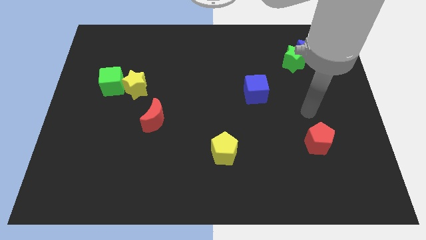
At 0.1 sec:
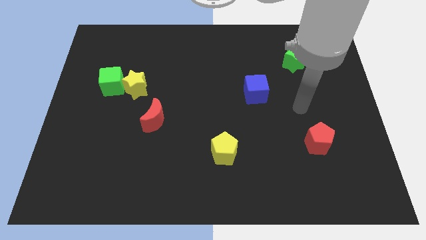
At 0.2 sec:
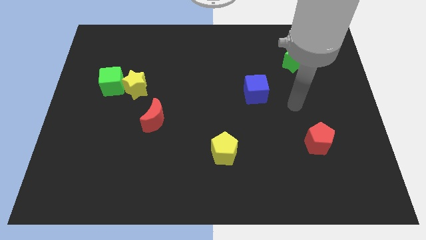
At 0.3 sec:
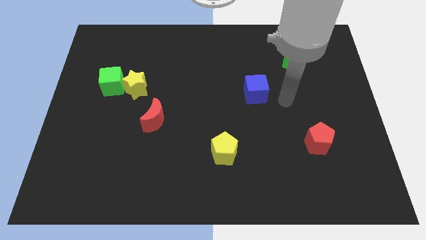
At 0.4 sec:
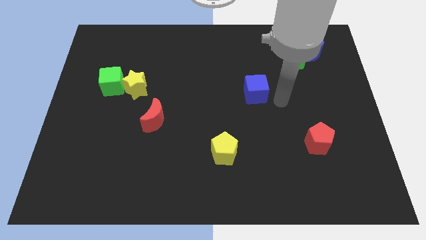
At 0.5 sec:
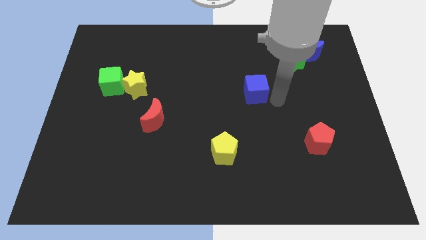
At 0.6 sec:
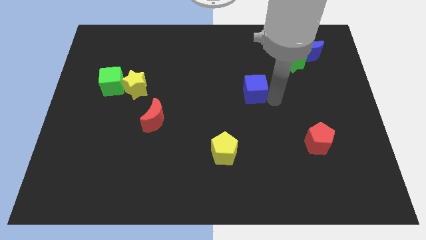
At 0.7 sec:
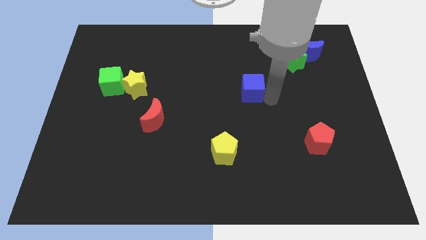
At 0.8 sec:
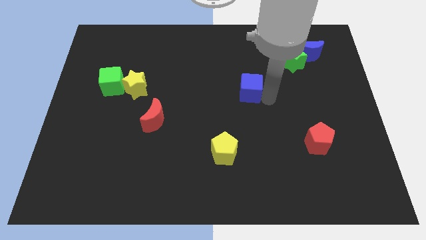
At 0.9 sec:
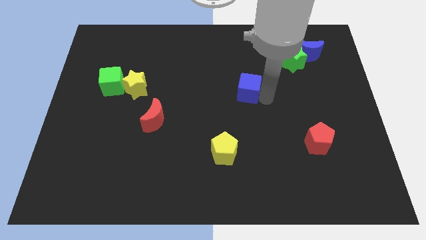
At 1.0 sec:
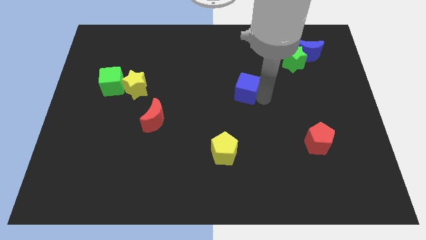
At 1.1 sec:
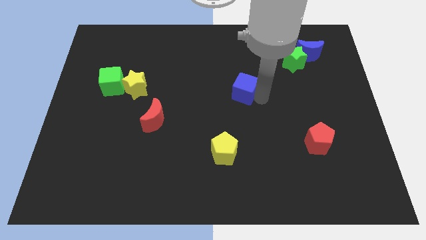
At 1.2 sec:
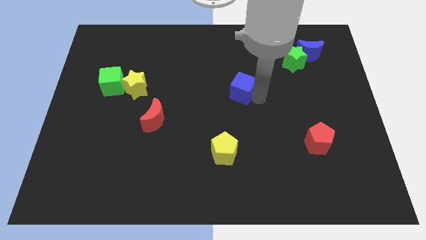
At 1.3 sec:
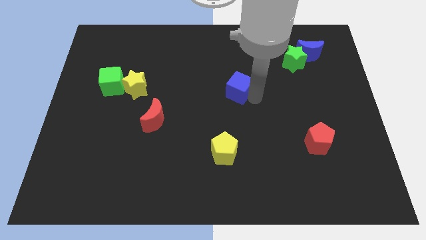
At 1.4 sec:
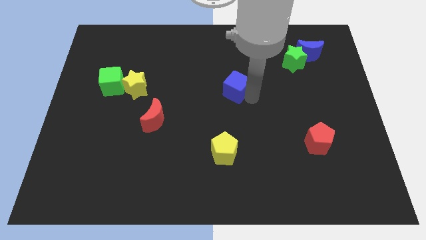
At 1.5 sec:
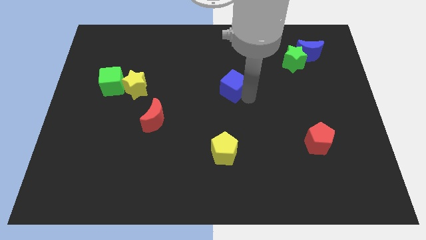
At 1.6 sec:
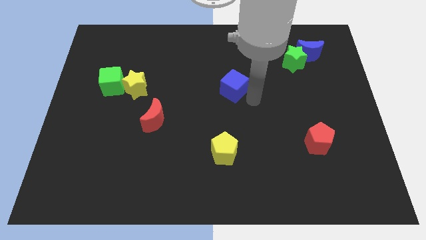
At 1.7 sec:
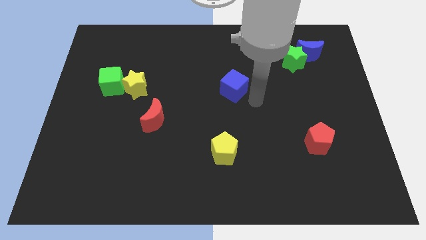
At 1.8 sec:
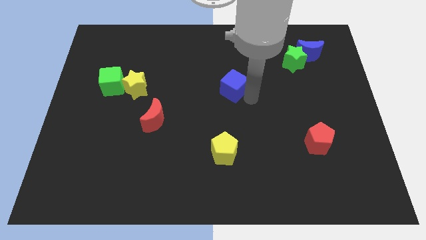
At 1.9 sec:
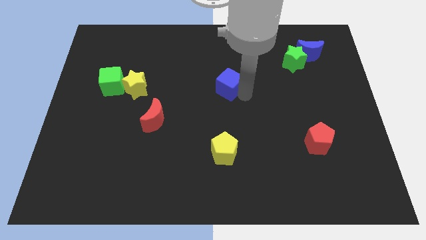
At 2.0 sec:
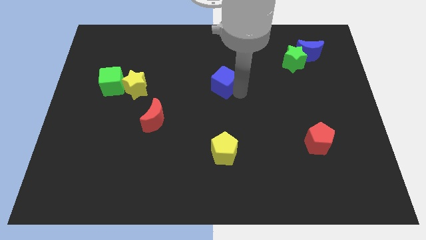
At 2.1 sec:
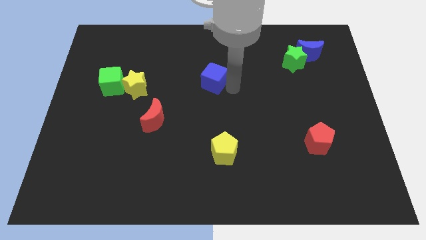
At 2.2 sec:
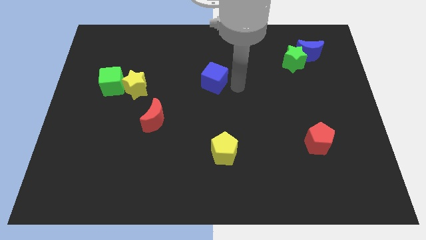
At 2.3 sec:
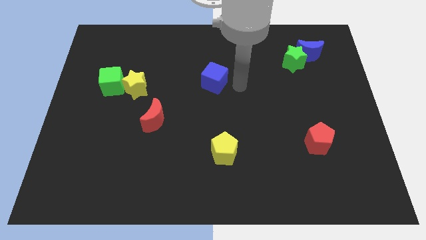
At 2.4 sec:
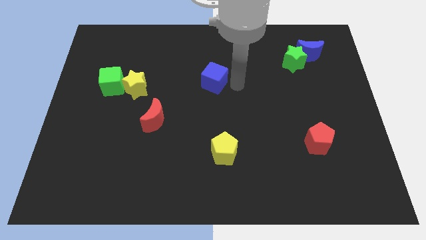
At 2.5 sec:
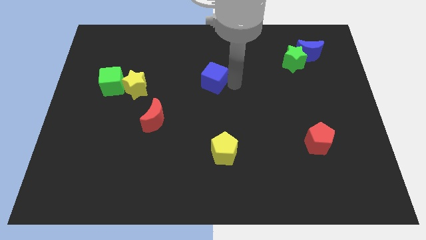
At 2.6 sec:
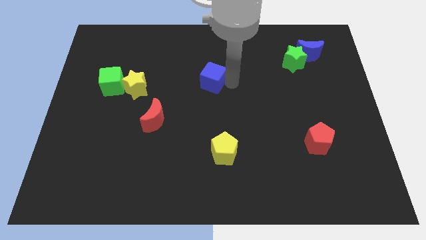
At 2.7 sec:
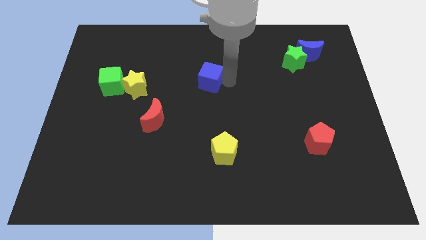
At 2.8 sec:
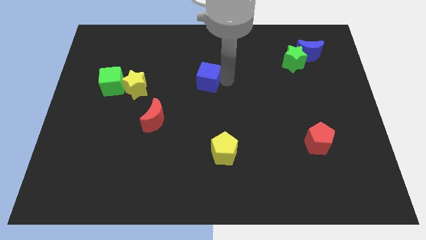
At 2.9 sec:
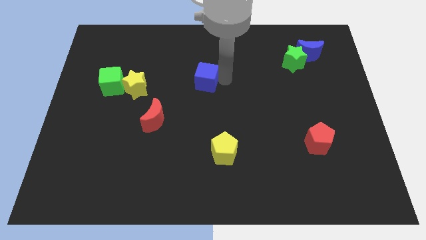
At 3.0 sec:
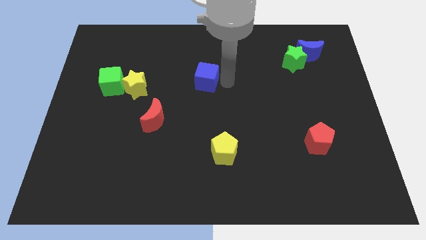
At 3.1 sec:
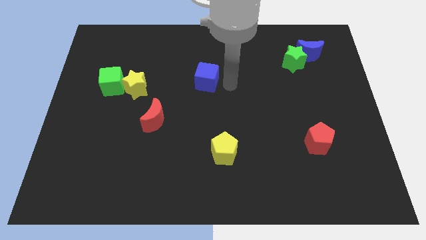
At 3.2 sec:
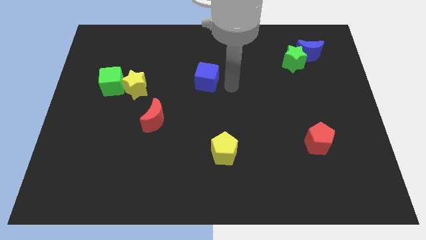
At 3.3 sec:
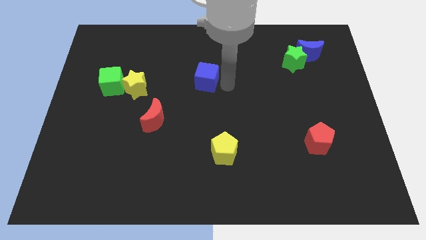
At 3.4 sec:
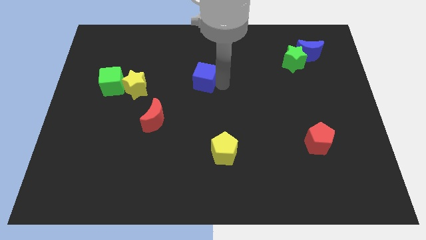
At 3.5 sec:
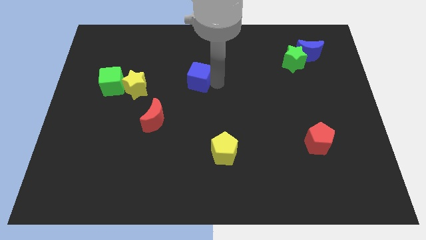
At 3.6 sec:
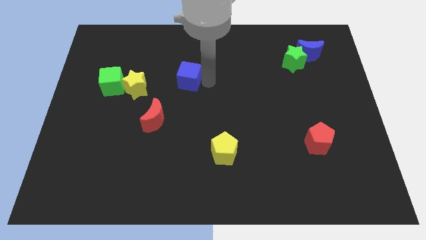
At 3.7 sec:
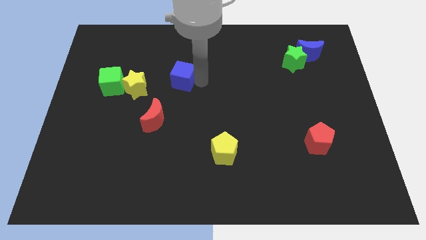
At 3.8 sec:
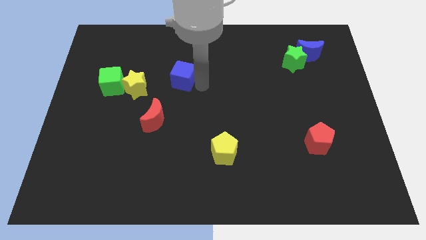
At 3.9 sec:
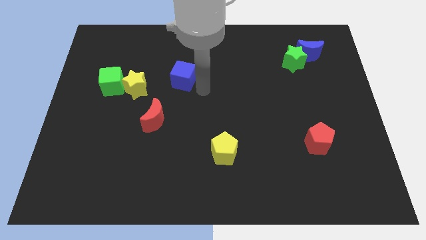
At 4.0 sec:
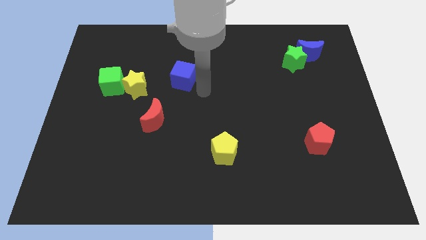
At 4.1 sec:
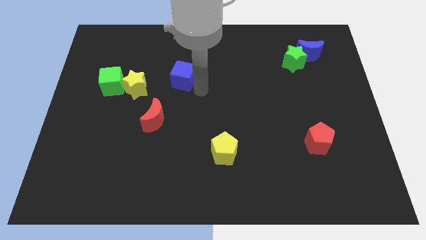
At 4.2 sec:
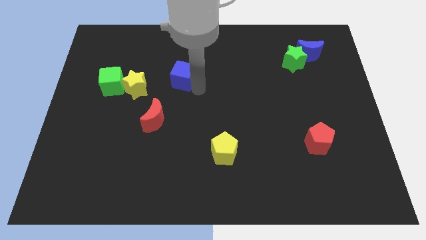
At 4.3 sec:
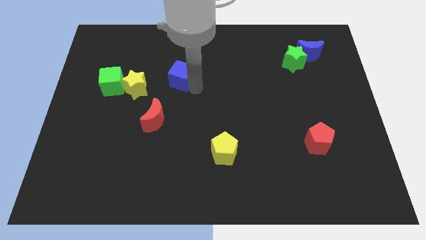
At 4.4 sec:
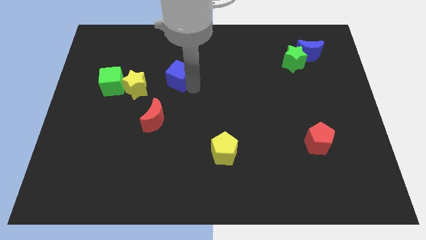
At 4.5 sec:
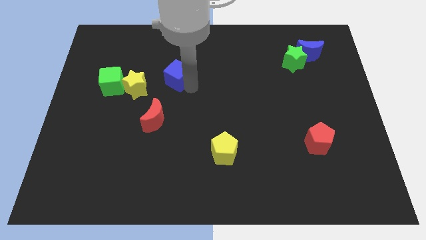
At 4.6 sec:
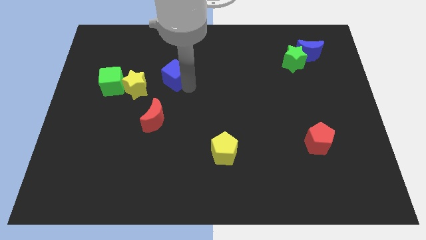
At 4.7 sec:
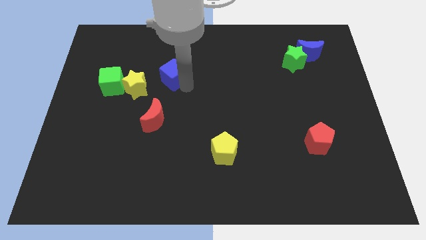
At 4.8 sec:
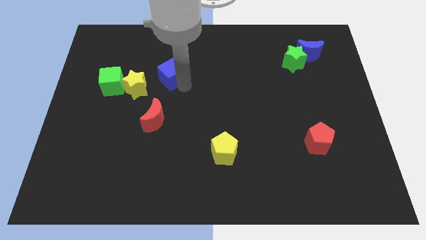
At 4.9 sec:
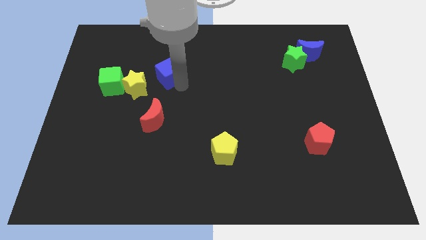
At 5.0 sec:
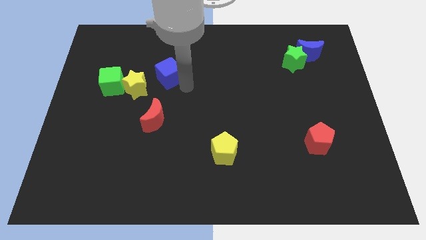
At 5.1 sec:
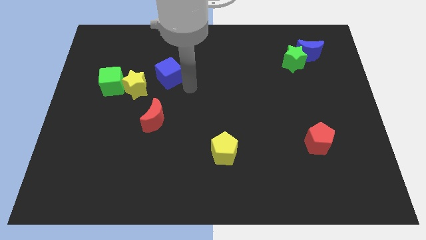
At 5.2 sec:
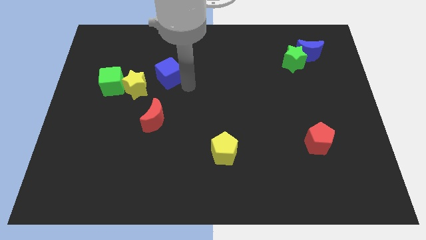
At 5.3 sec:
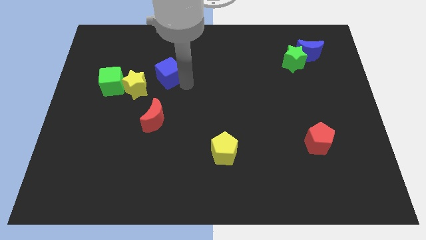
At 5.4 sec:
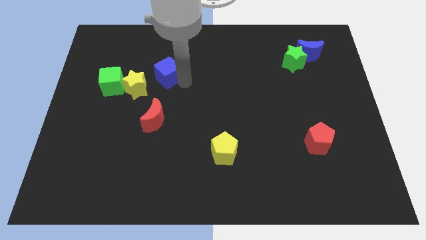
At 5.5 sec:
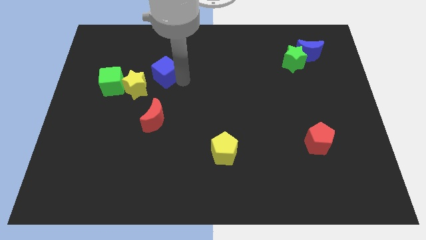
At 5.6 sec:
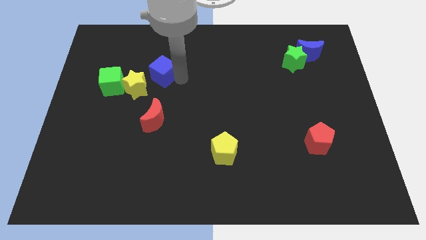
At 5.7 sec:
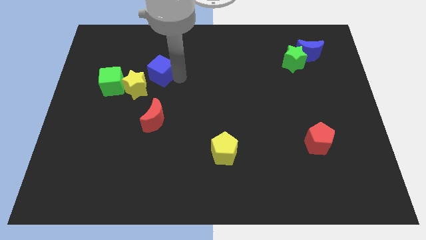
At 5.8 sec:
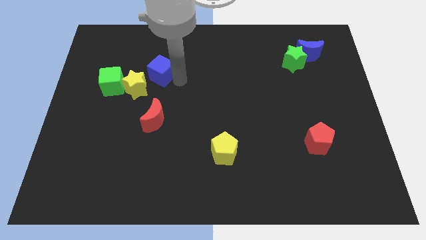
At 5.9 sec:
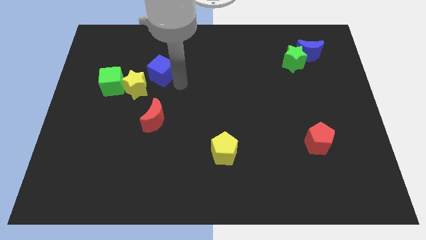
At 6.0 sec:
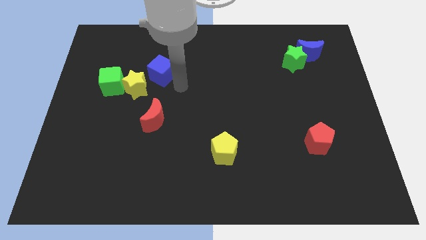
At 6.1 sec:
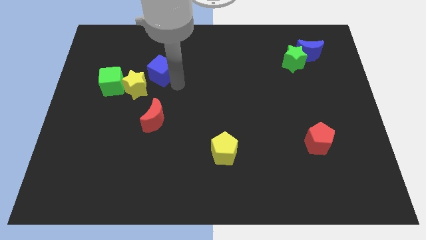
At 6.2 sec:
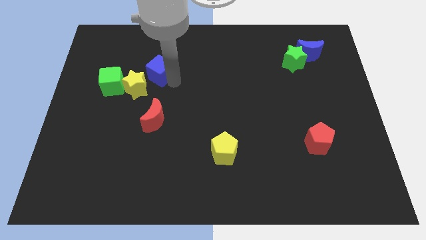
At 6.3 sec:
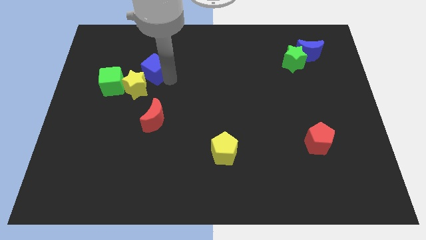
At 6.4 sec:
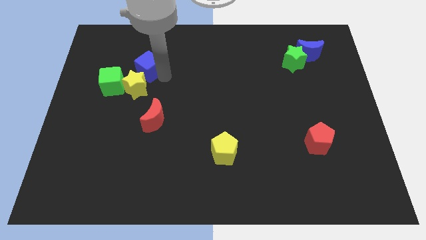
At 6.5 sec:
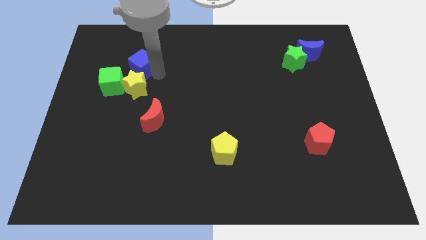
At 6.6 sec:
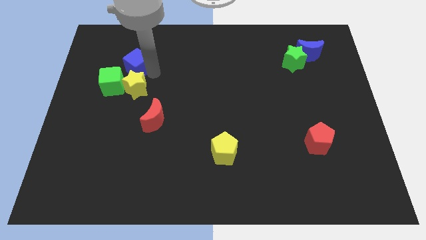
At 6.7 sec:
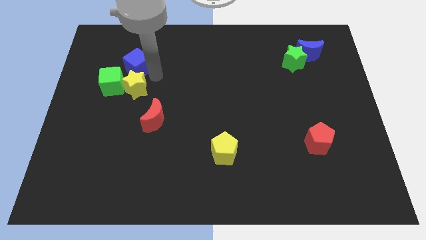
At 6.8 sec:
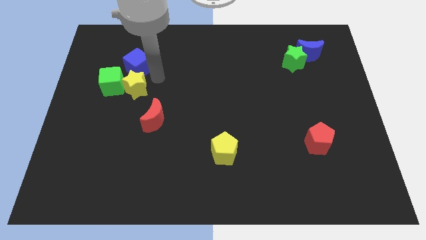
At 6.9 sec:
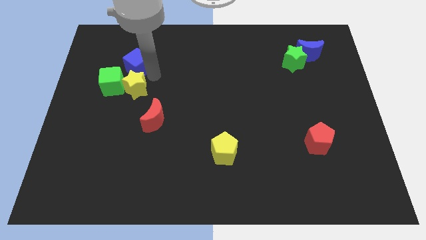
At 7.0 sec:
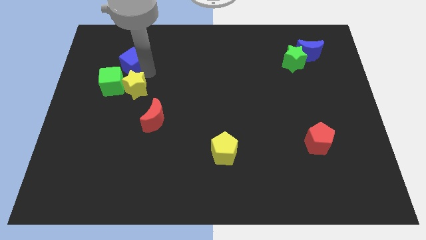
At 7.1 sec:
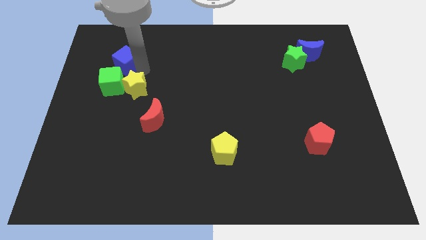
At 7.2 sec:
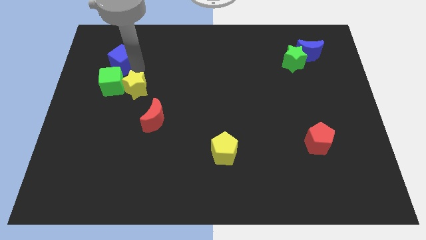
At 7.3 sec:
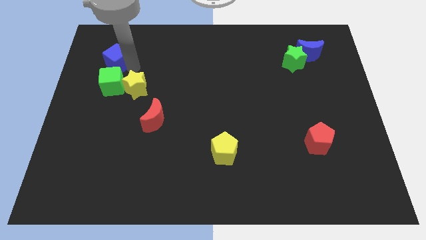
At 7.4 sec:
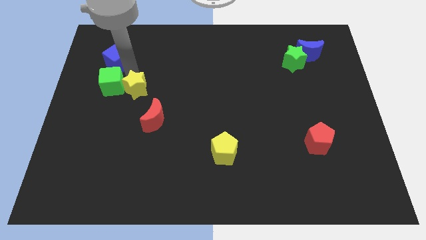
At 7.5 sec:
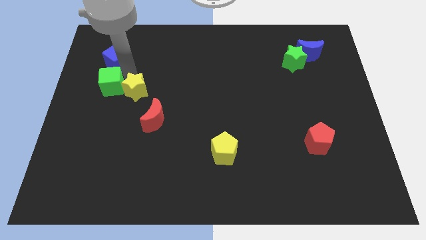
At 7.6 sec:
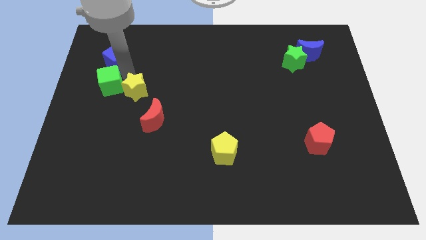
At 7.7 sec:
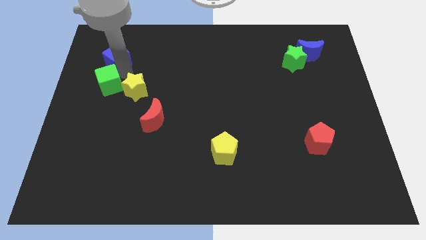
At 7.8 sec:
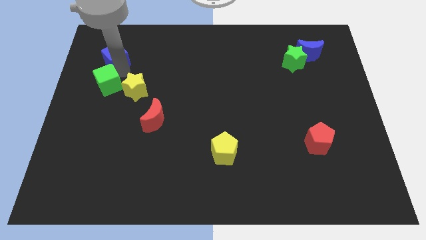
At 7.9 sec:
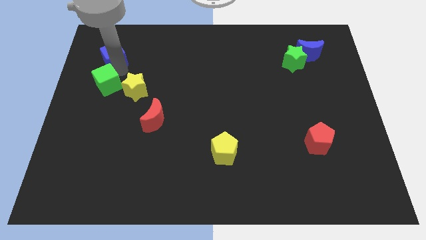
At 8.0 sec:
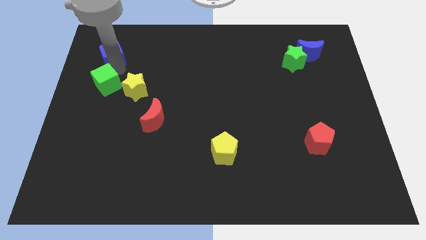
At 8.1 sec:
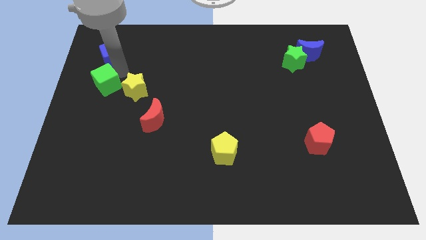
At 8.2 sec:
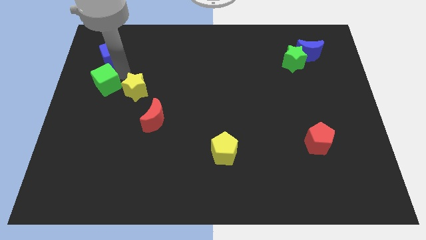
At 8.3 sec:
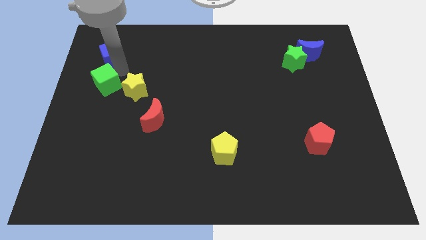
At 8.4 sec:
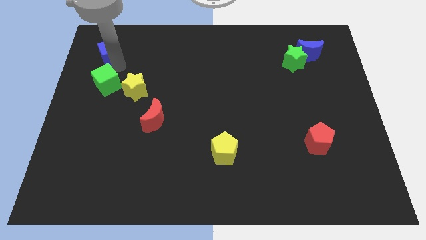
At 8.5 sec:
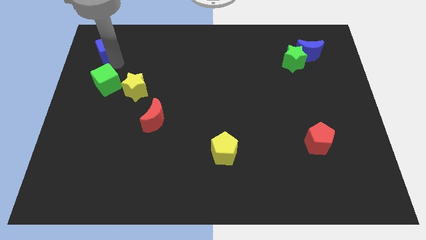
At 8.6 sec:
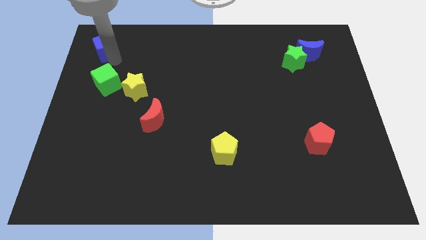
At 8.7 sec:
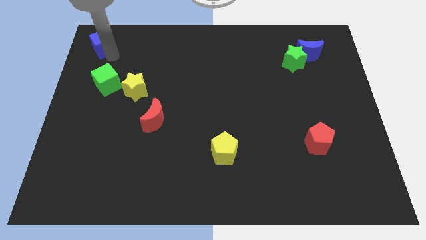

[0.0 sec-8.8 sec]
slide the blue cube to the top left of the board
